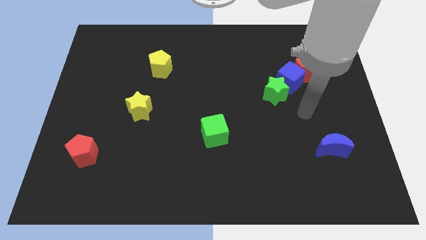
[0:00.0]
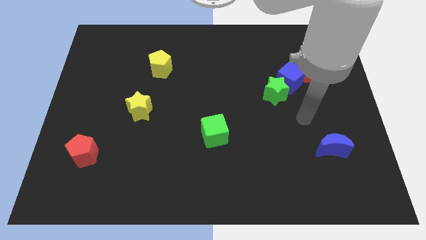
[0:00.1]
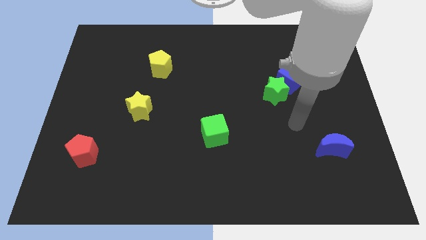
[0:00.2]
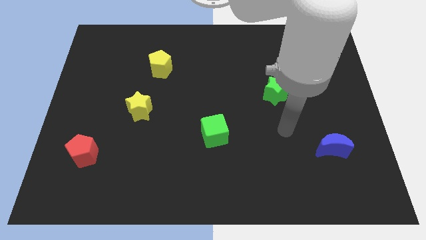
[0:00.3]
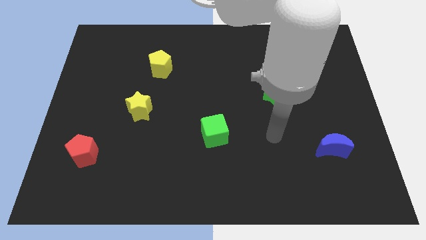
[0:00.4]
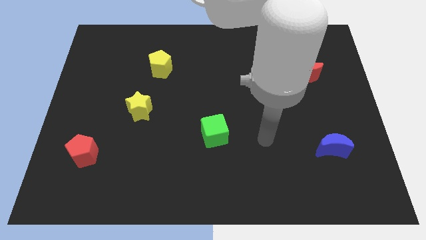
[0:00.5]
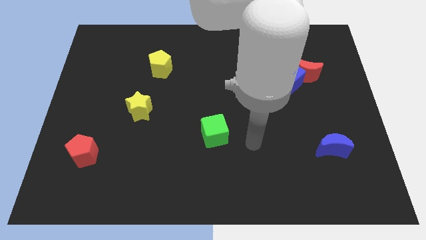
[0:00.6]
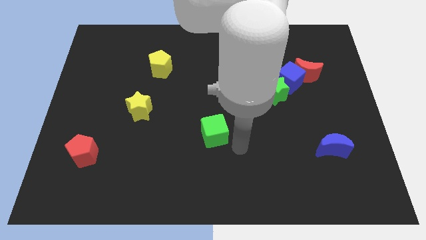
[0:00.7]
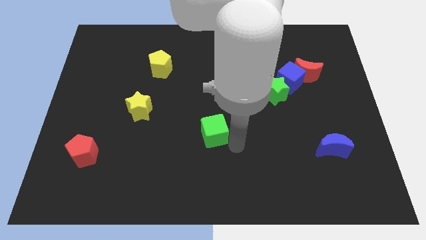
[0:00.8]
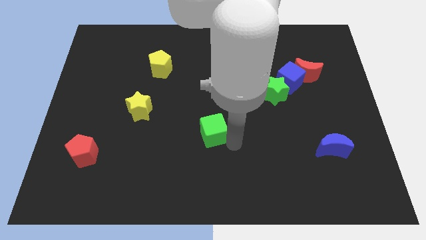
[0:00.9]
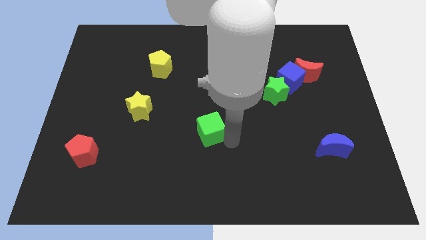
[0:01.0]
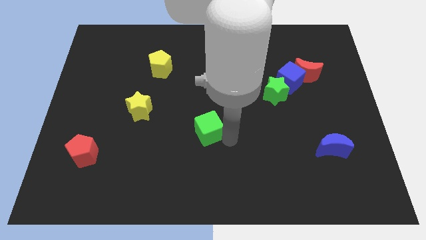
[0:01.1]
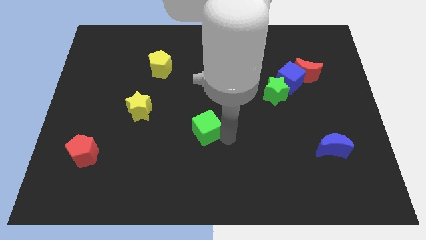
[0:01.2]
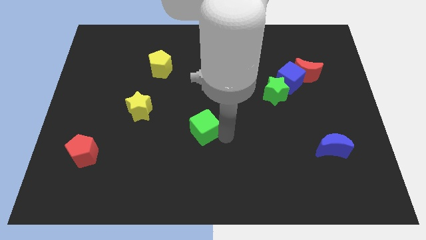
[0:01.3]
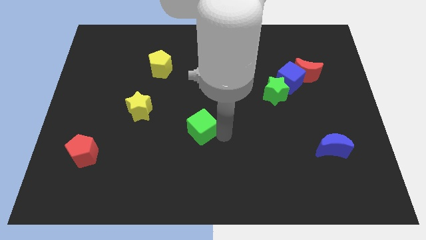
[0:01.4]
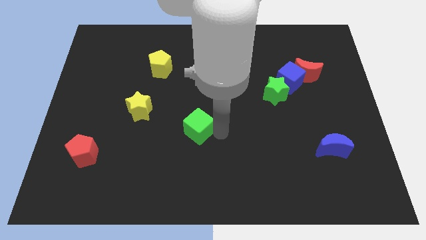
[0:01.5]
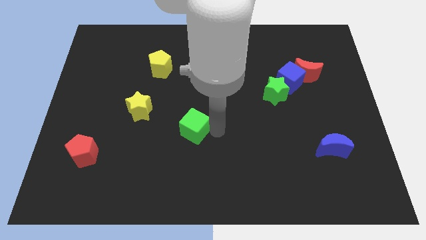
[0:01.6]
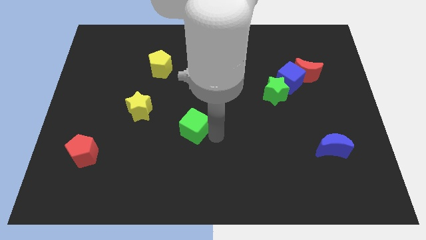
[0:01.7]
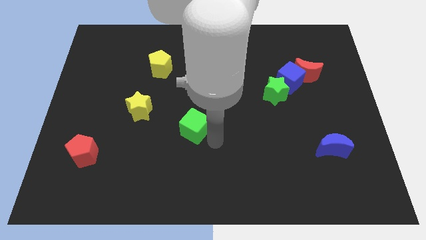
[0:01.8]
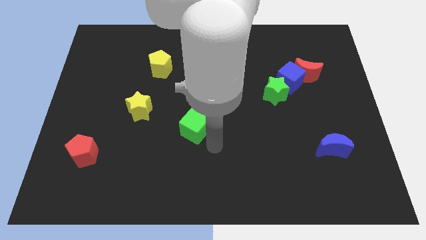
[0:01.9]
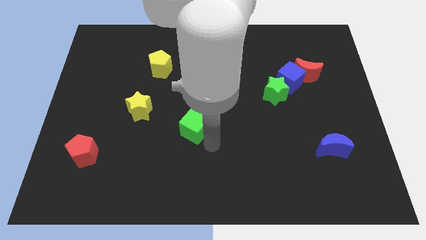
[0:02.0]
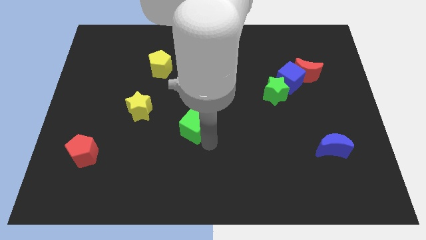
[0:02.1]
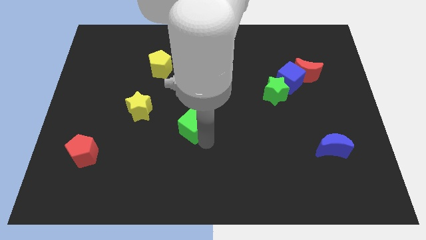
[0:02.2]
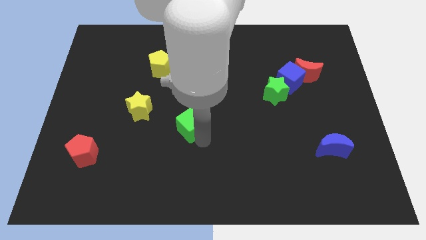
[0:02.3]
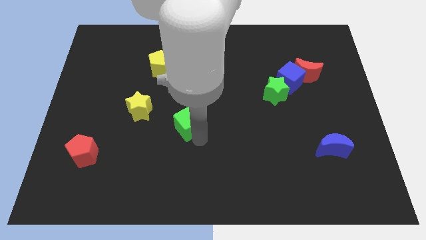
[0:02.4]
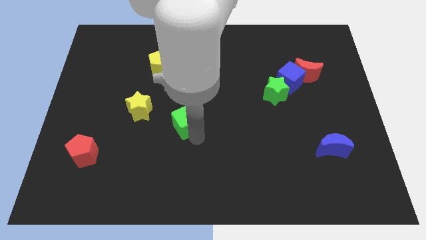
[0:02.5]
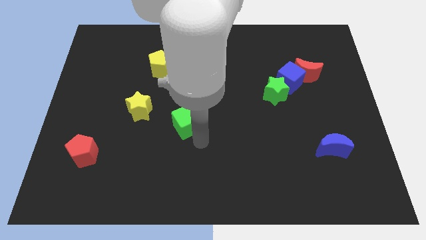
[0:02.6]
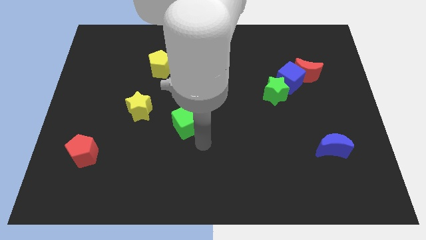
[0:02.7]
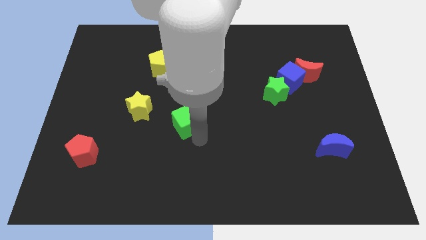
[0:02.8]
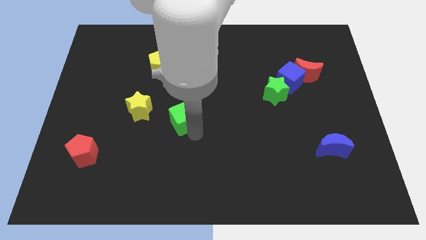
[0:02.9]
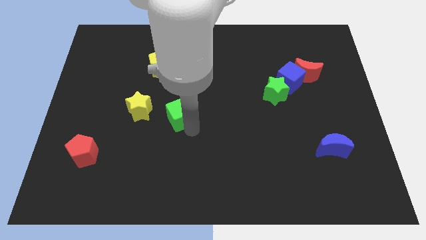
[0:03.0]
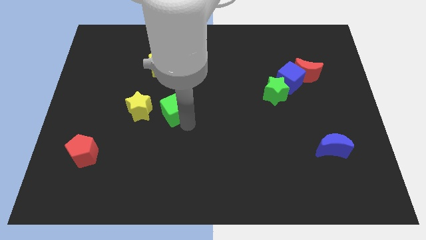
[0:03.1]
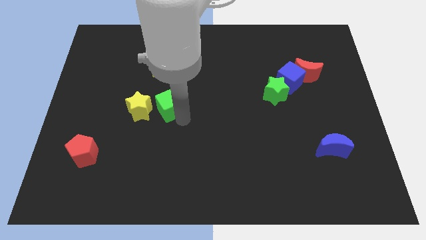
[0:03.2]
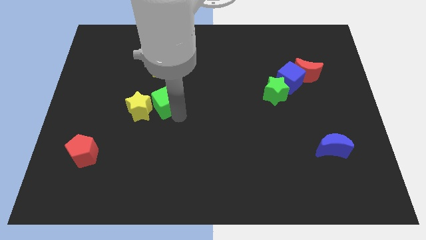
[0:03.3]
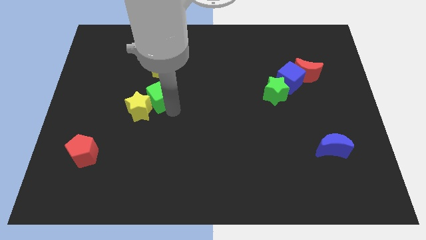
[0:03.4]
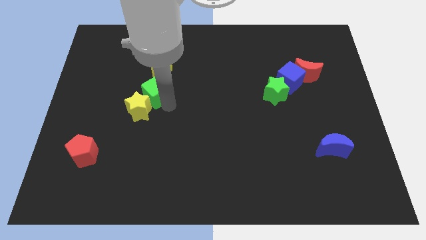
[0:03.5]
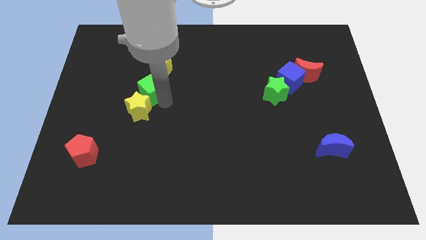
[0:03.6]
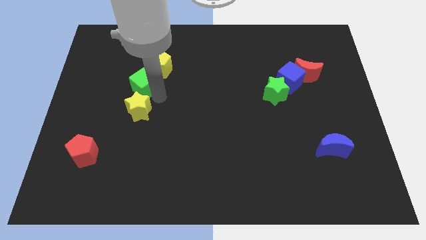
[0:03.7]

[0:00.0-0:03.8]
slide the green cube diagonally up and left

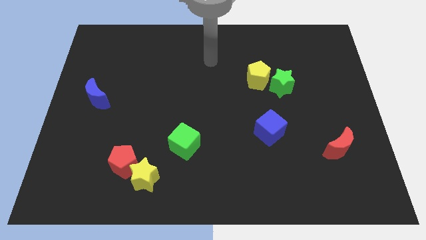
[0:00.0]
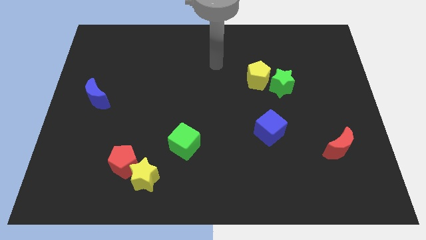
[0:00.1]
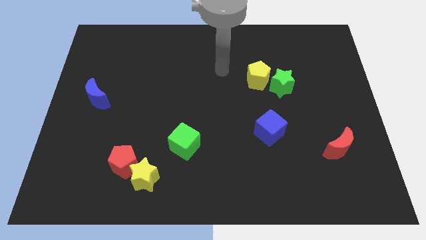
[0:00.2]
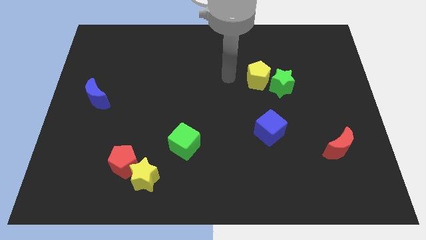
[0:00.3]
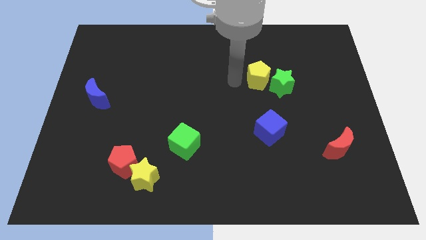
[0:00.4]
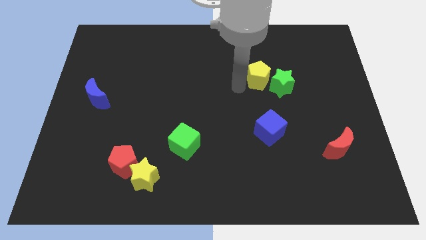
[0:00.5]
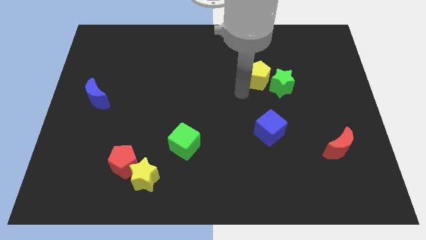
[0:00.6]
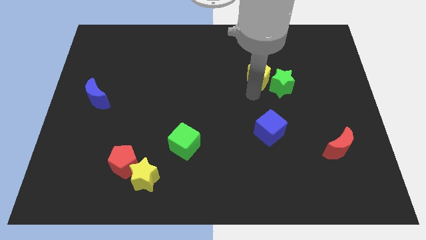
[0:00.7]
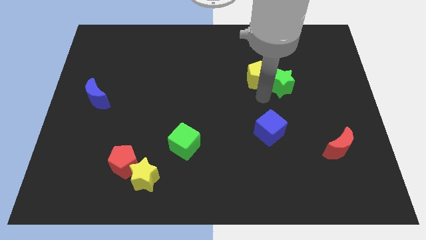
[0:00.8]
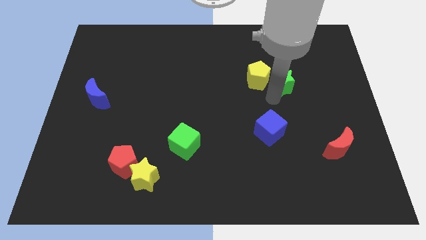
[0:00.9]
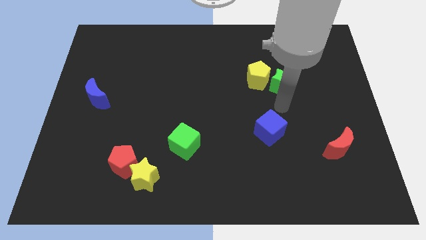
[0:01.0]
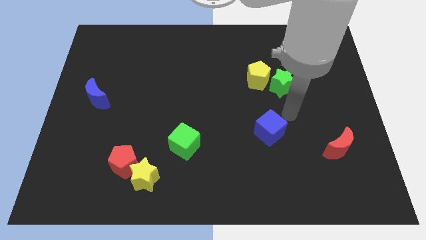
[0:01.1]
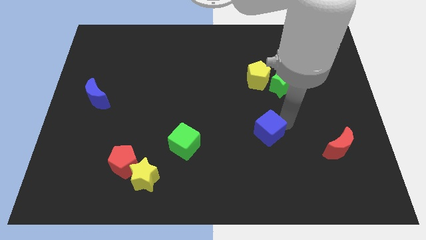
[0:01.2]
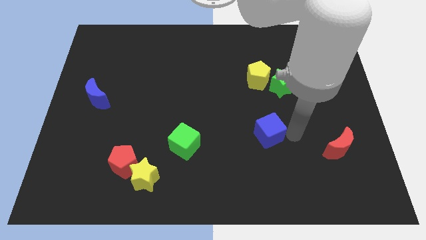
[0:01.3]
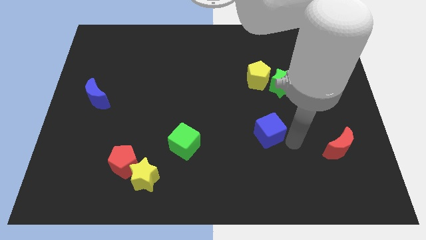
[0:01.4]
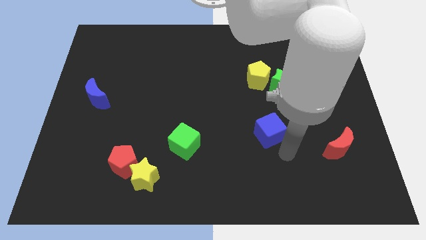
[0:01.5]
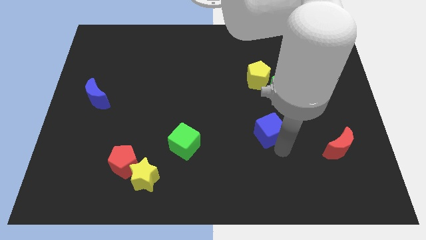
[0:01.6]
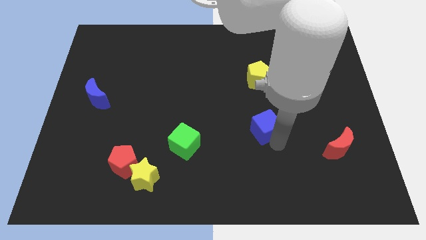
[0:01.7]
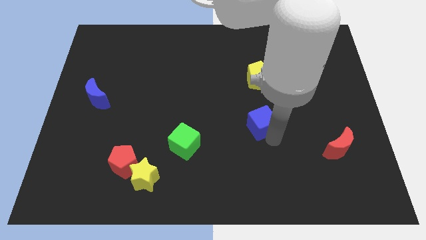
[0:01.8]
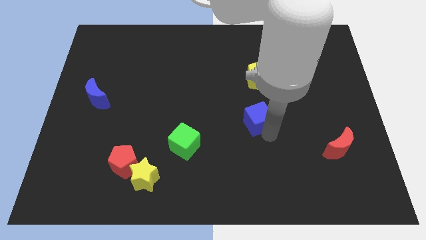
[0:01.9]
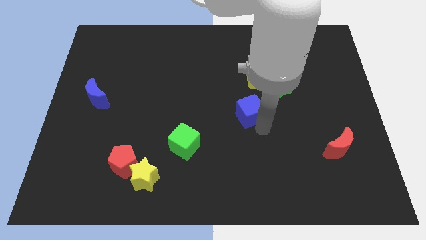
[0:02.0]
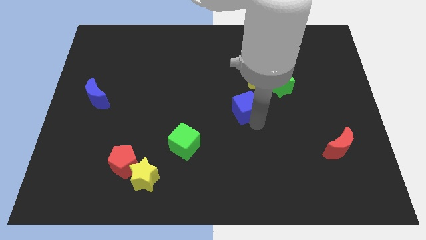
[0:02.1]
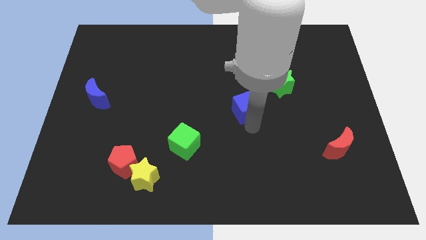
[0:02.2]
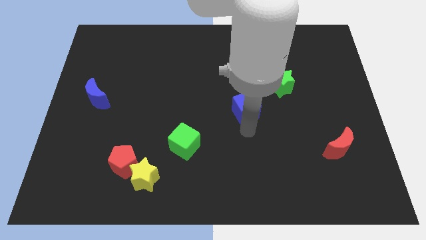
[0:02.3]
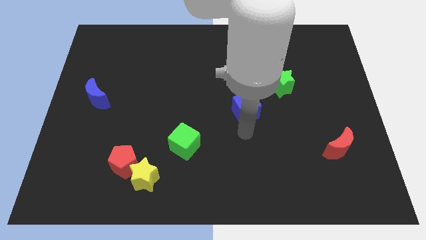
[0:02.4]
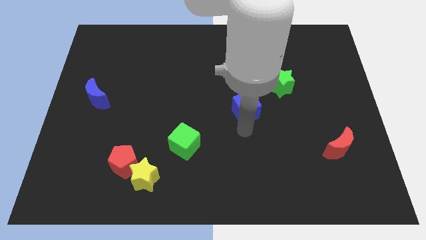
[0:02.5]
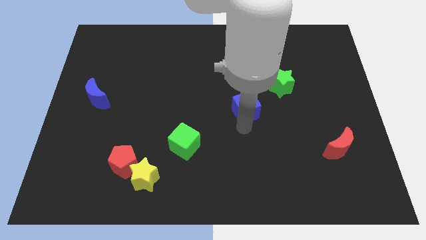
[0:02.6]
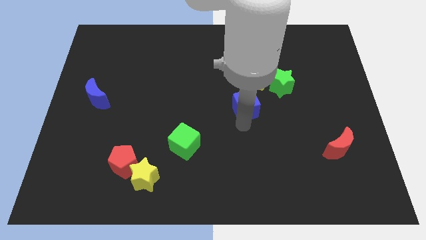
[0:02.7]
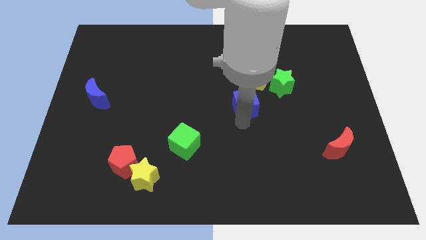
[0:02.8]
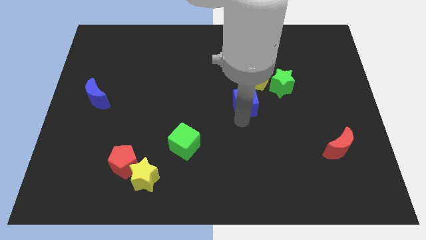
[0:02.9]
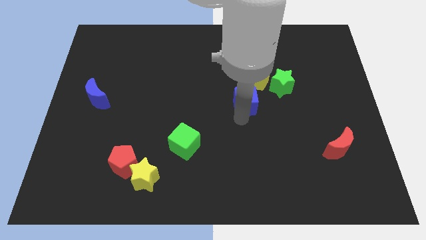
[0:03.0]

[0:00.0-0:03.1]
slightly slide the blue cube upwards

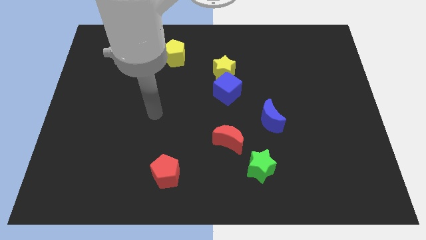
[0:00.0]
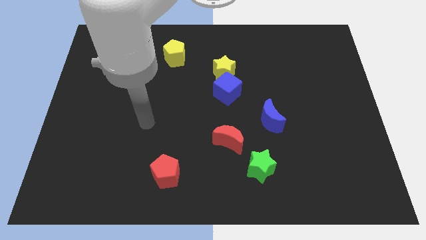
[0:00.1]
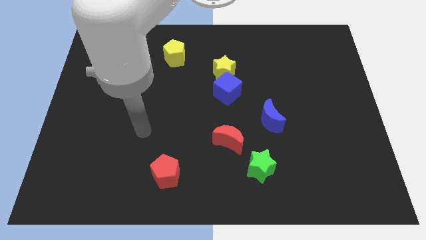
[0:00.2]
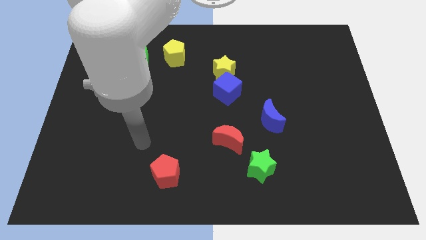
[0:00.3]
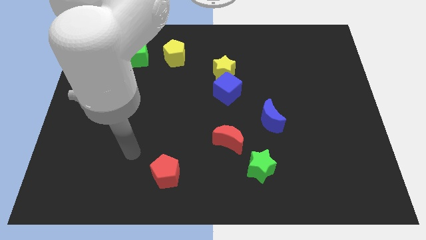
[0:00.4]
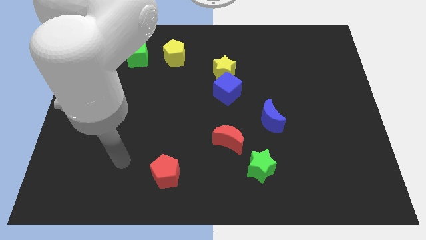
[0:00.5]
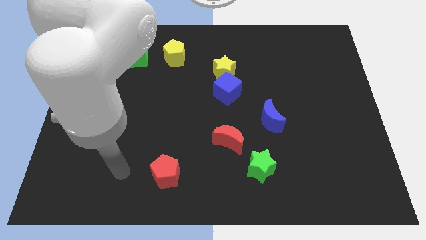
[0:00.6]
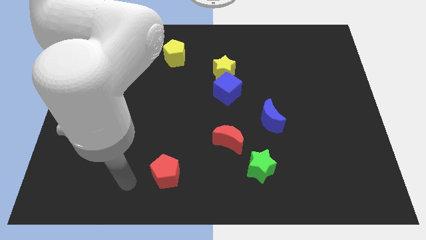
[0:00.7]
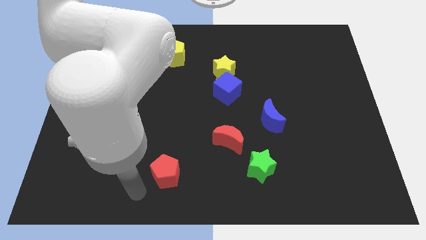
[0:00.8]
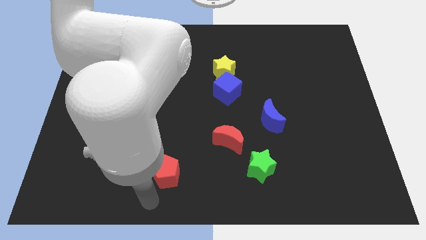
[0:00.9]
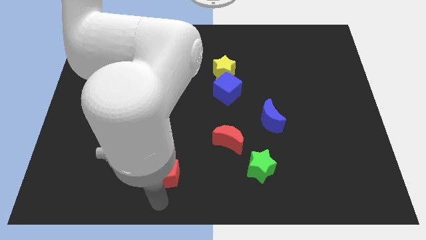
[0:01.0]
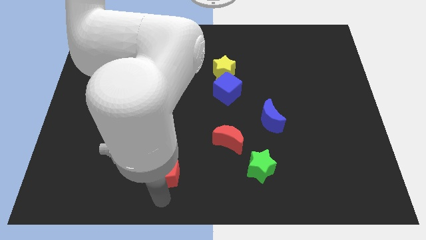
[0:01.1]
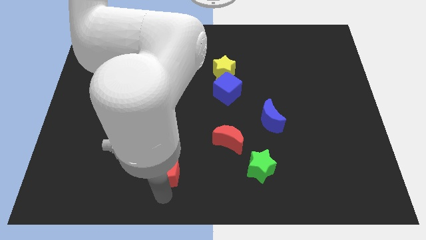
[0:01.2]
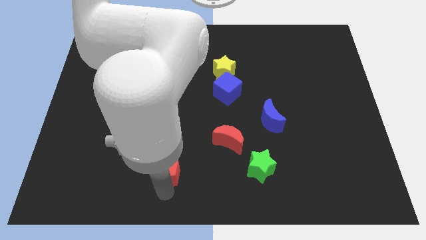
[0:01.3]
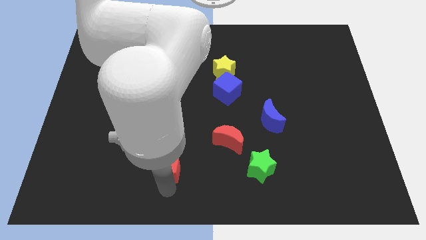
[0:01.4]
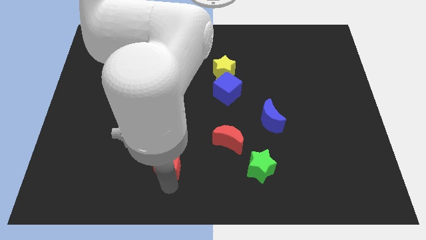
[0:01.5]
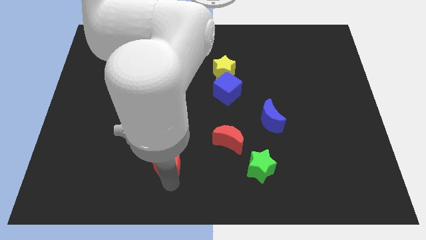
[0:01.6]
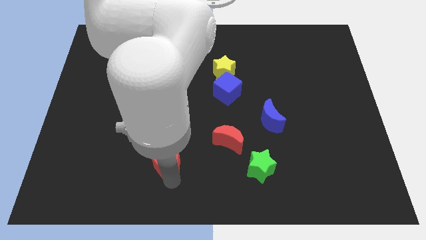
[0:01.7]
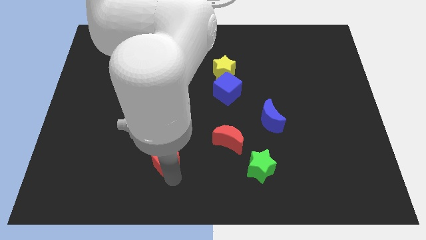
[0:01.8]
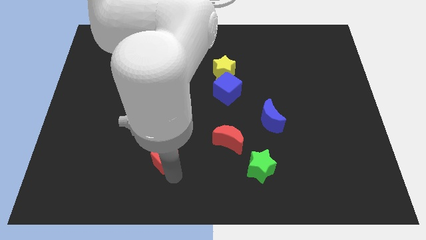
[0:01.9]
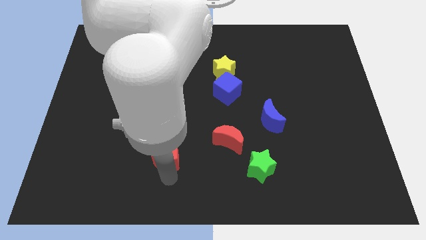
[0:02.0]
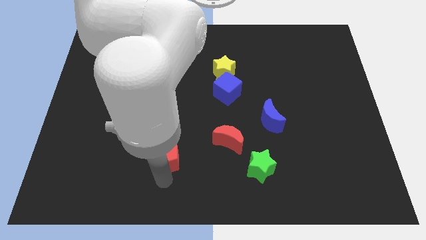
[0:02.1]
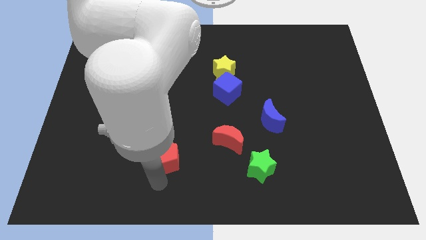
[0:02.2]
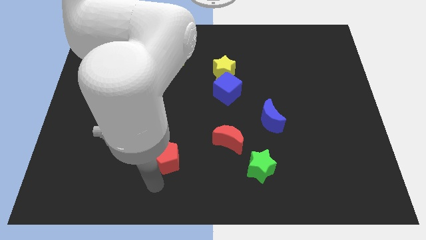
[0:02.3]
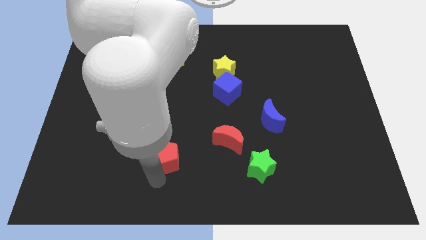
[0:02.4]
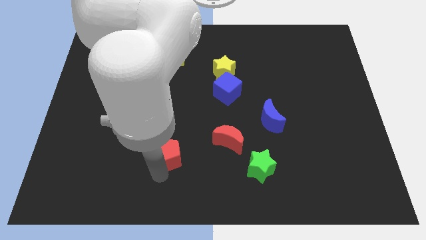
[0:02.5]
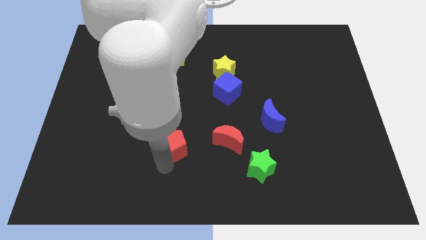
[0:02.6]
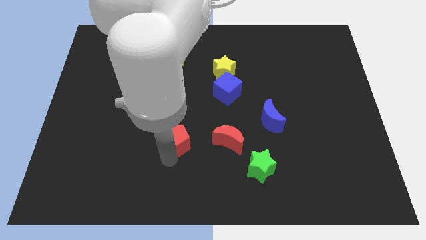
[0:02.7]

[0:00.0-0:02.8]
slightly slide the red pentagon up
